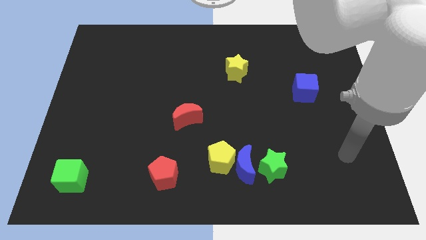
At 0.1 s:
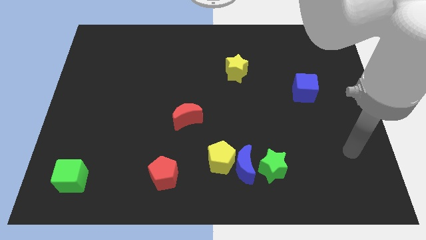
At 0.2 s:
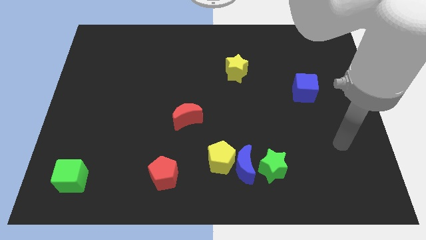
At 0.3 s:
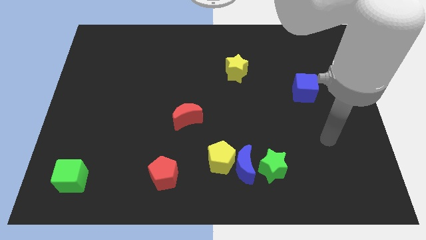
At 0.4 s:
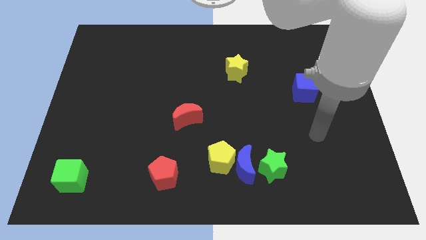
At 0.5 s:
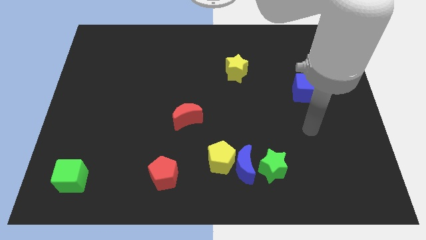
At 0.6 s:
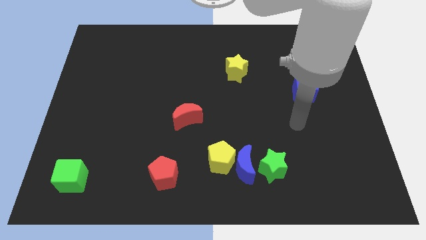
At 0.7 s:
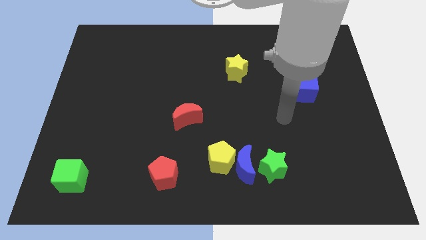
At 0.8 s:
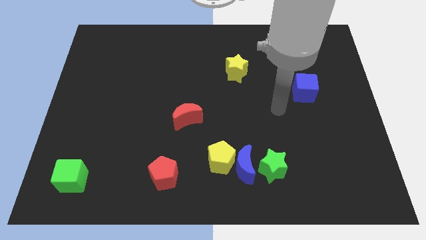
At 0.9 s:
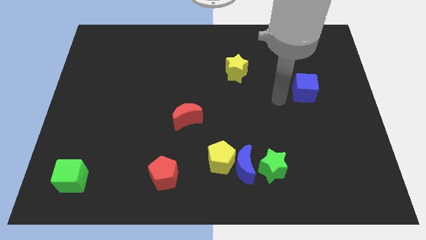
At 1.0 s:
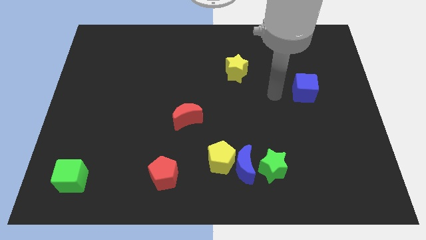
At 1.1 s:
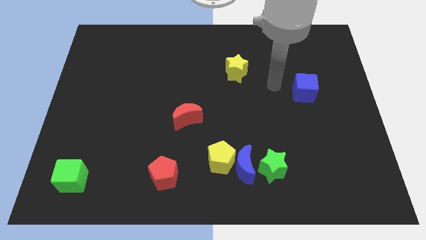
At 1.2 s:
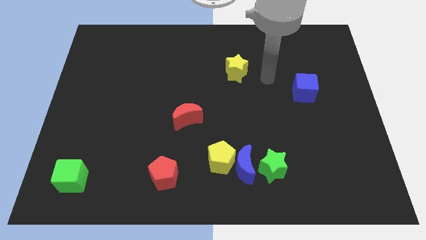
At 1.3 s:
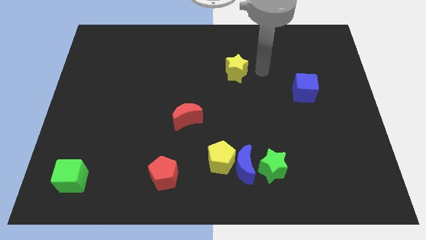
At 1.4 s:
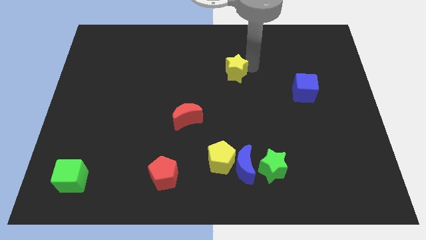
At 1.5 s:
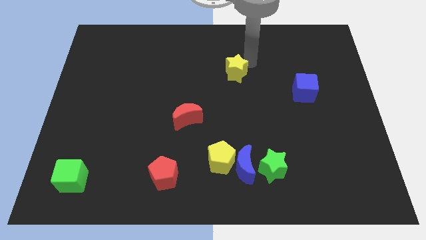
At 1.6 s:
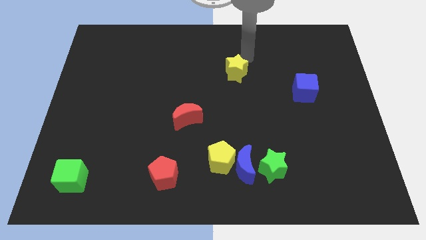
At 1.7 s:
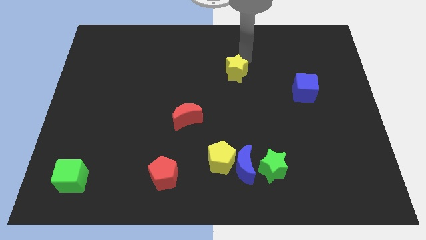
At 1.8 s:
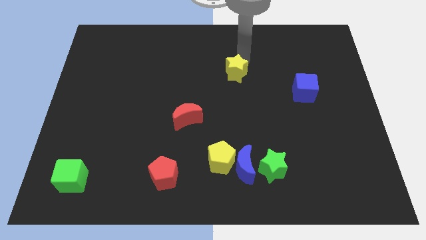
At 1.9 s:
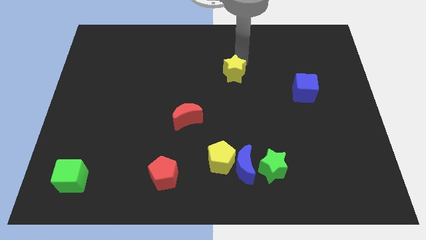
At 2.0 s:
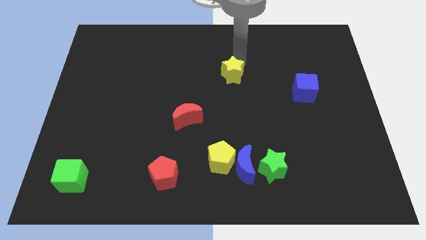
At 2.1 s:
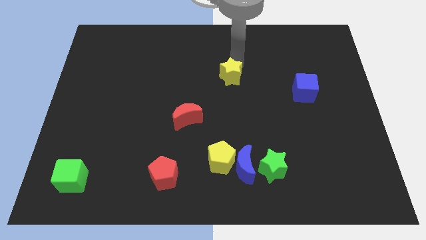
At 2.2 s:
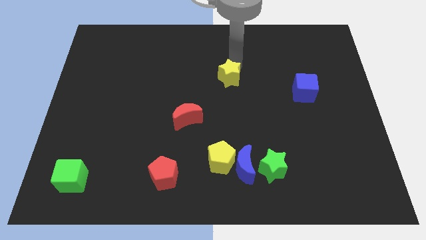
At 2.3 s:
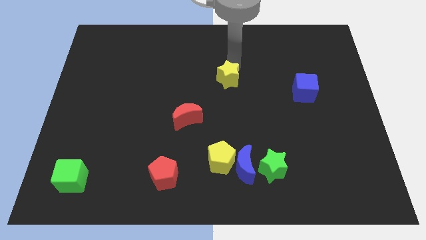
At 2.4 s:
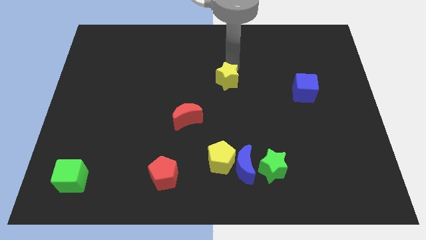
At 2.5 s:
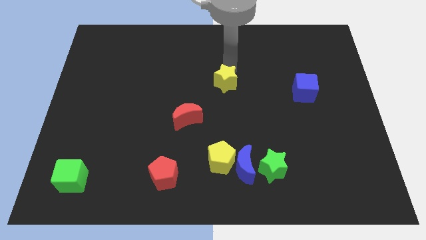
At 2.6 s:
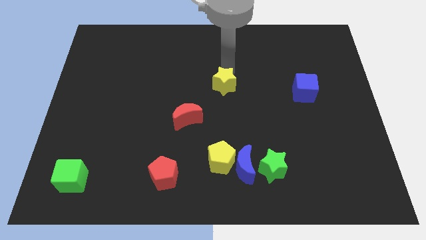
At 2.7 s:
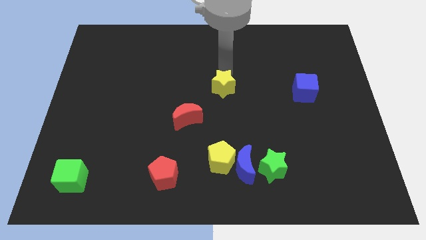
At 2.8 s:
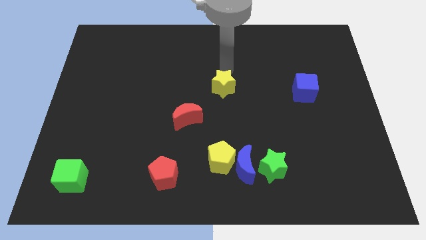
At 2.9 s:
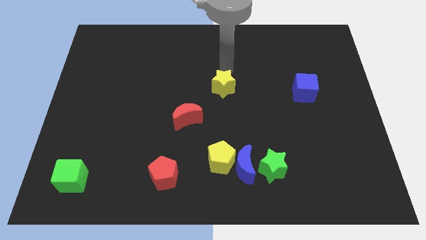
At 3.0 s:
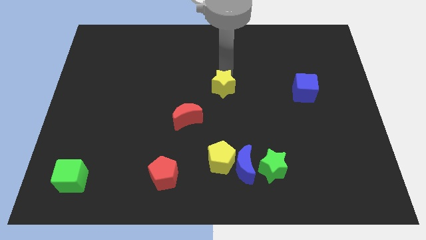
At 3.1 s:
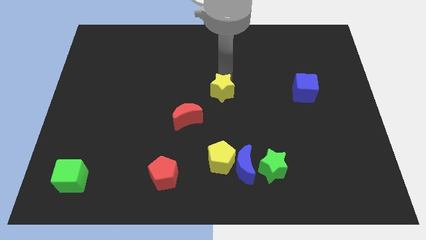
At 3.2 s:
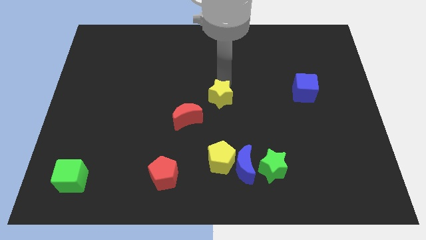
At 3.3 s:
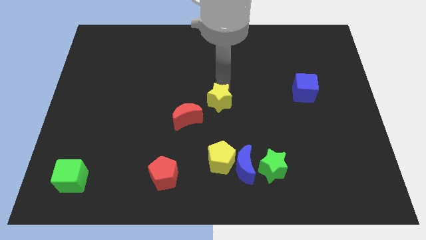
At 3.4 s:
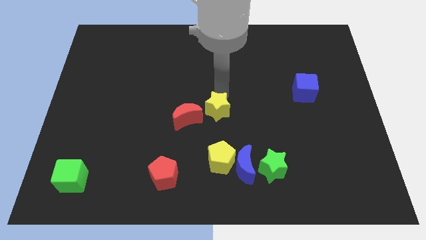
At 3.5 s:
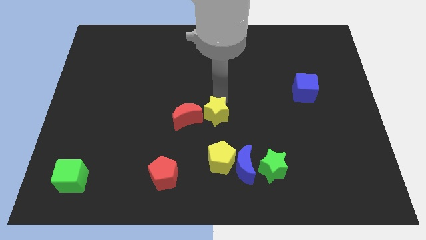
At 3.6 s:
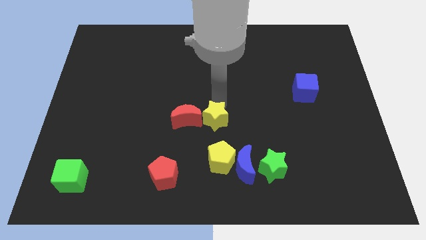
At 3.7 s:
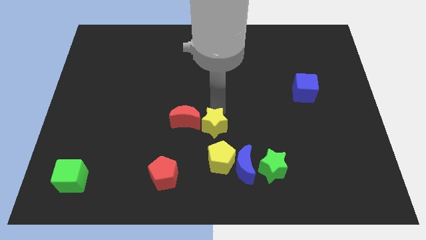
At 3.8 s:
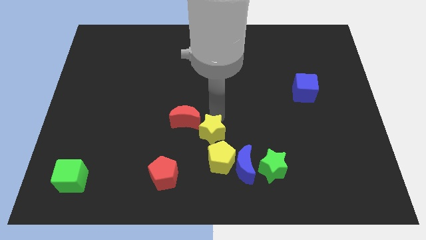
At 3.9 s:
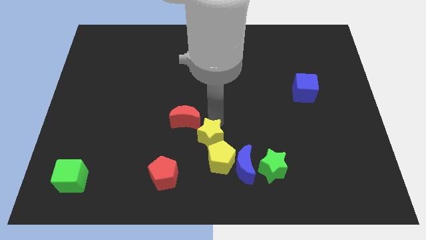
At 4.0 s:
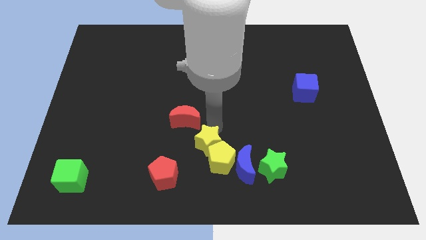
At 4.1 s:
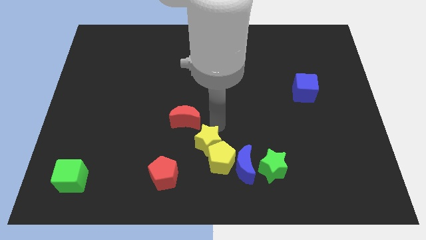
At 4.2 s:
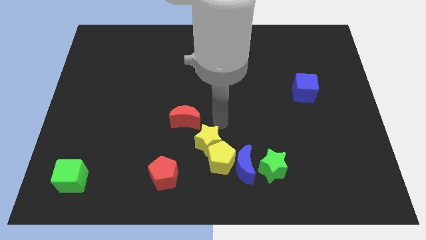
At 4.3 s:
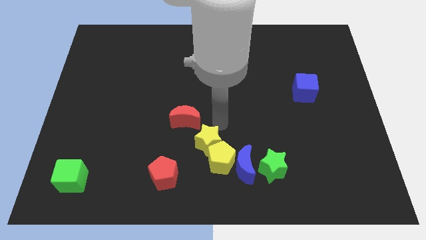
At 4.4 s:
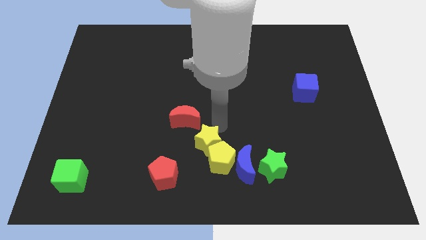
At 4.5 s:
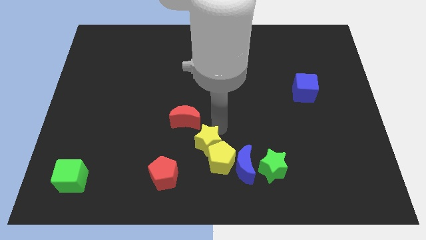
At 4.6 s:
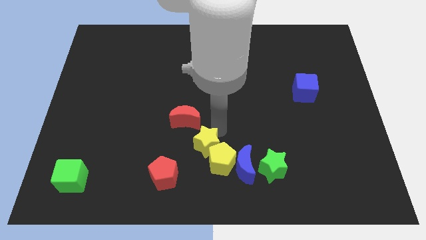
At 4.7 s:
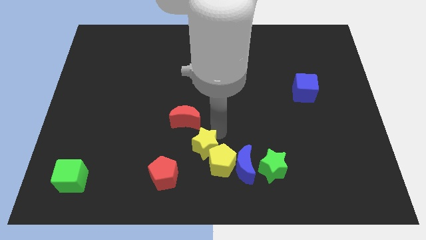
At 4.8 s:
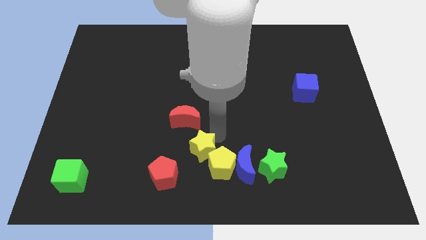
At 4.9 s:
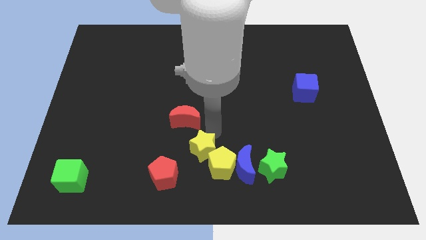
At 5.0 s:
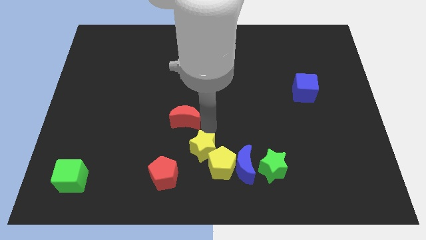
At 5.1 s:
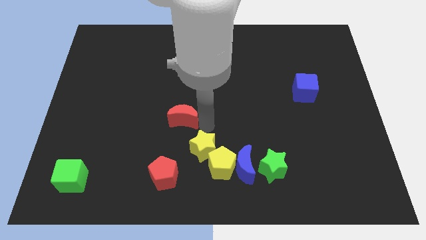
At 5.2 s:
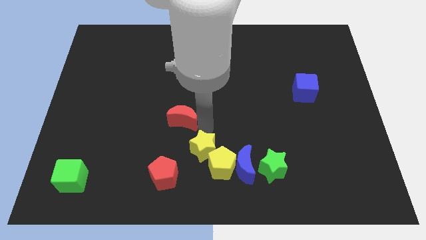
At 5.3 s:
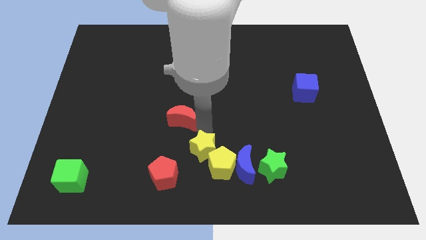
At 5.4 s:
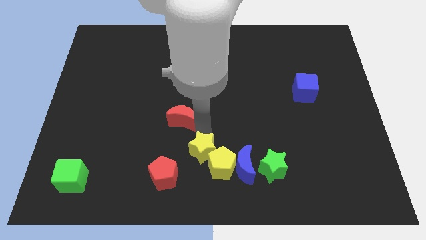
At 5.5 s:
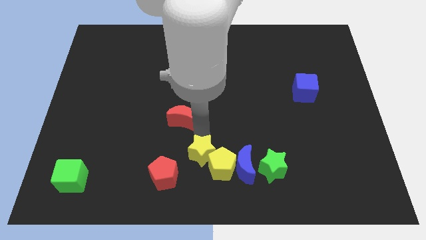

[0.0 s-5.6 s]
move the yellow star to the bottom side

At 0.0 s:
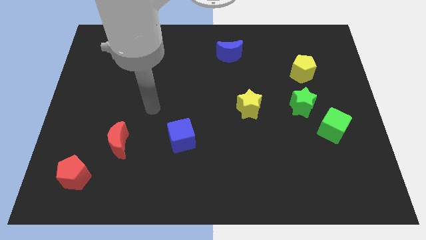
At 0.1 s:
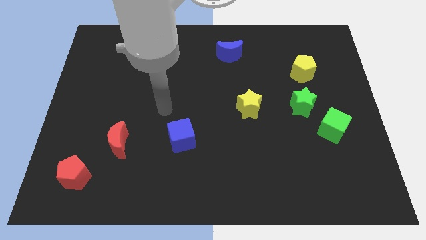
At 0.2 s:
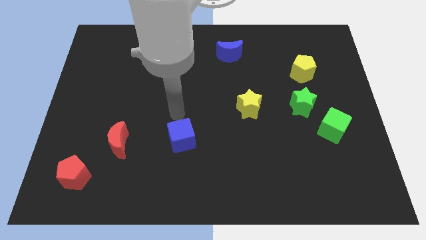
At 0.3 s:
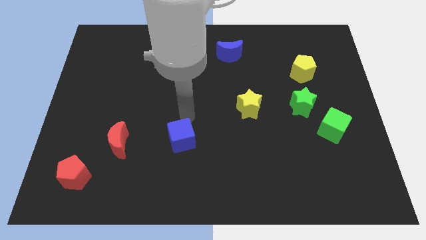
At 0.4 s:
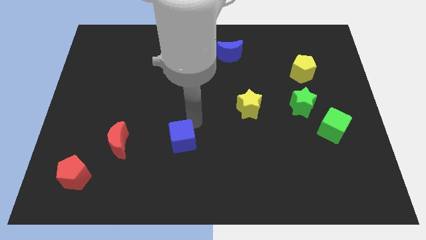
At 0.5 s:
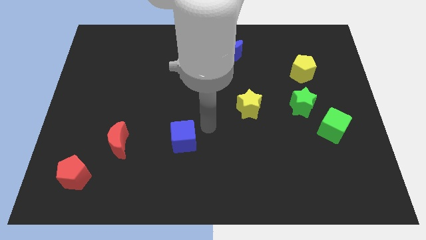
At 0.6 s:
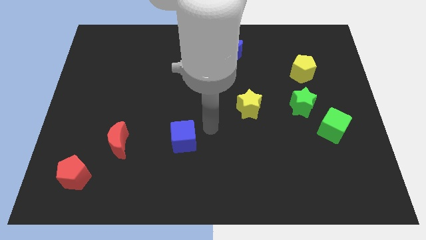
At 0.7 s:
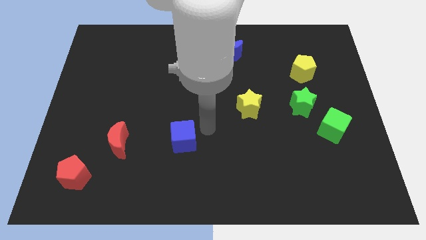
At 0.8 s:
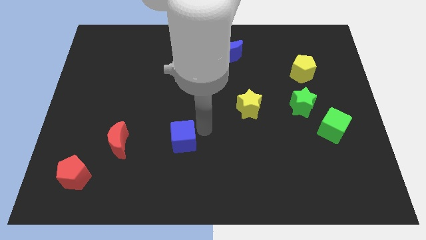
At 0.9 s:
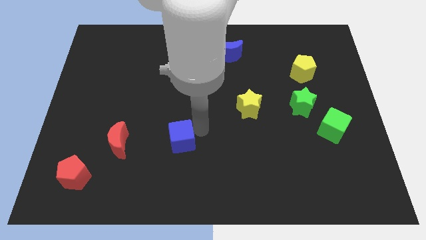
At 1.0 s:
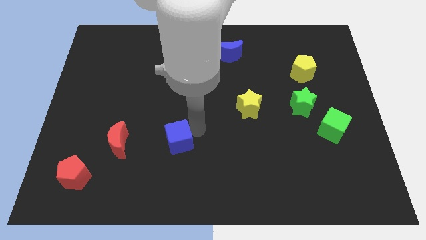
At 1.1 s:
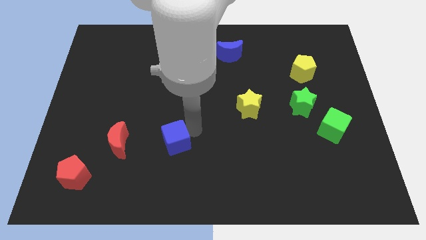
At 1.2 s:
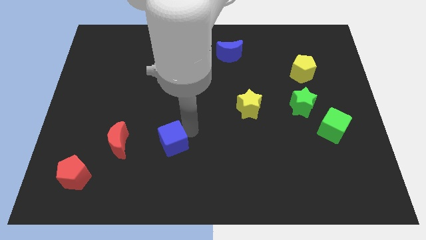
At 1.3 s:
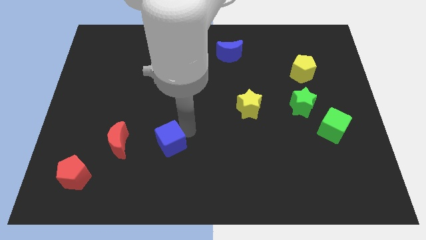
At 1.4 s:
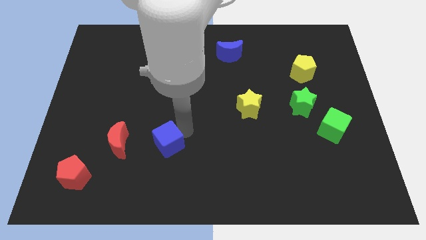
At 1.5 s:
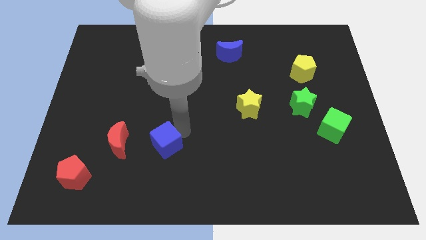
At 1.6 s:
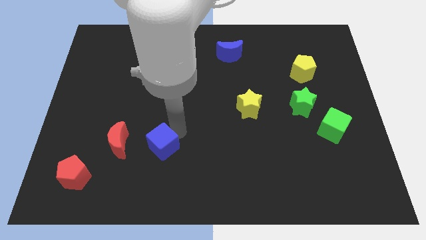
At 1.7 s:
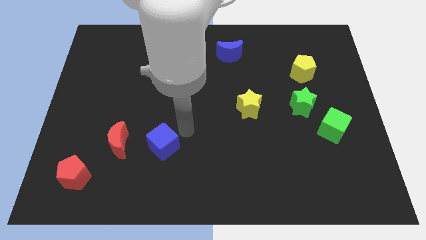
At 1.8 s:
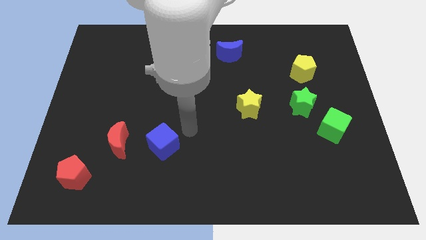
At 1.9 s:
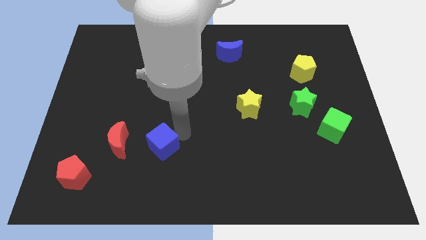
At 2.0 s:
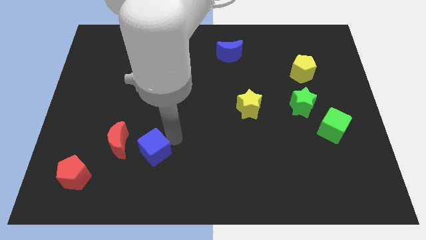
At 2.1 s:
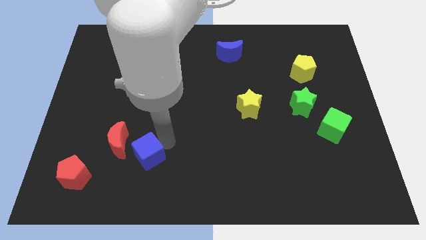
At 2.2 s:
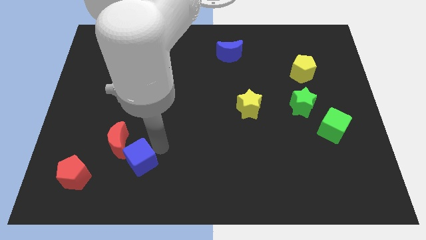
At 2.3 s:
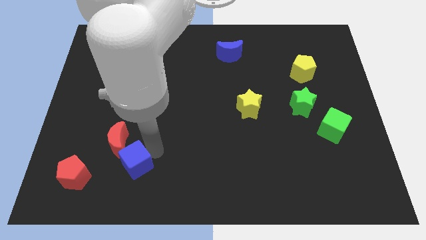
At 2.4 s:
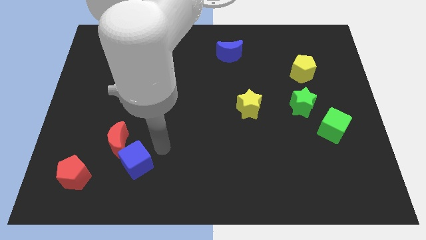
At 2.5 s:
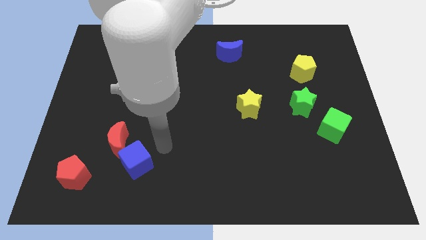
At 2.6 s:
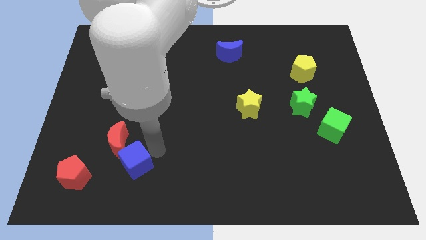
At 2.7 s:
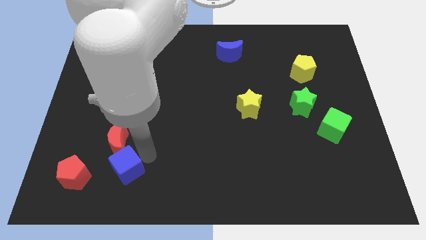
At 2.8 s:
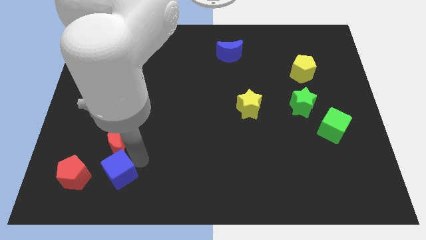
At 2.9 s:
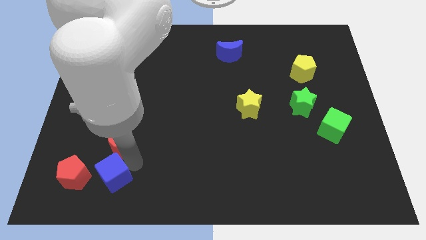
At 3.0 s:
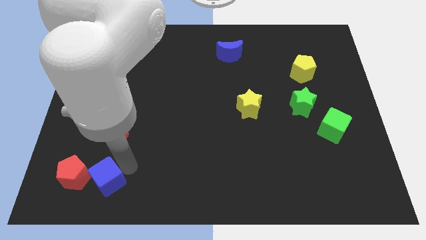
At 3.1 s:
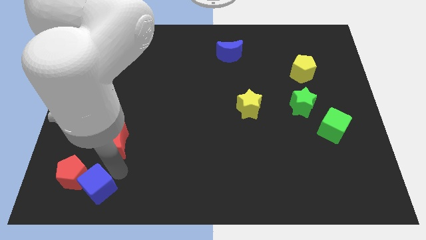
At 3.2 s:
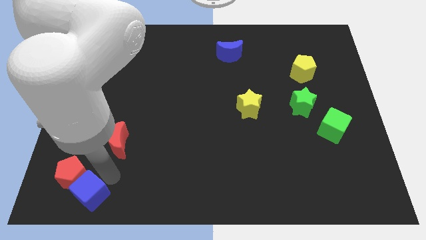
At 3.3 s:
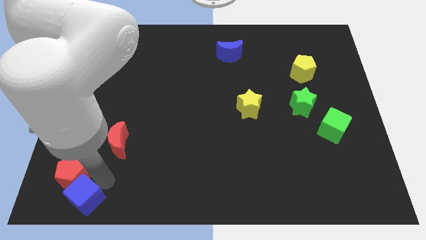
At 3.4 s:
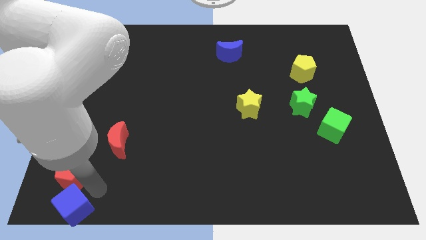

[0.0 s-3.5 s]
push the blue cube to the bottom left of the board
